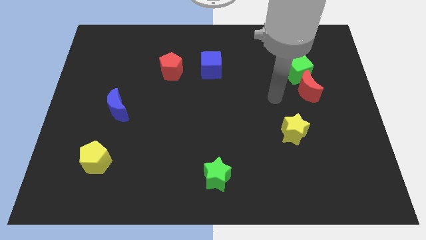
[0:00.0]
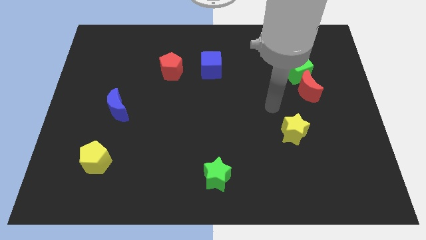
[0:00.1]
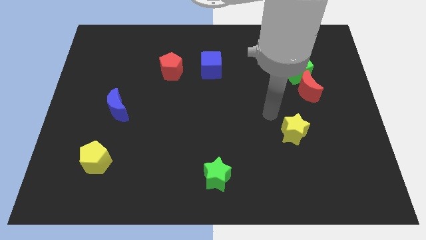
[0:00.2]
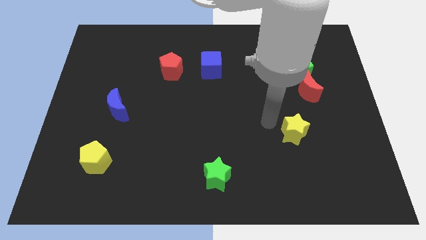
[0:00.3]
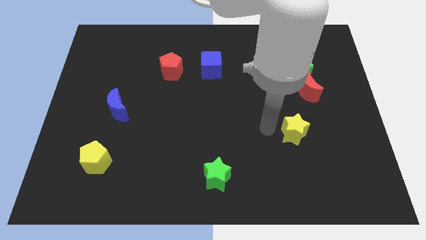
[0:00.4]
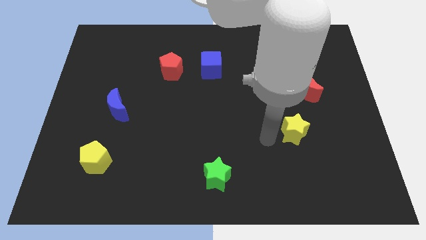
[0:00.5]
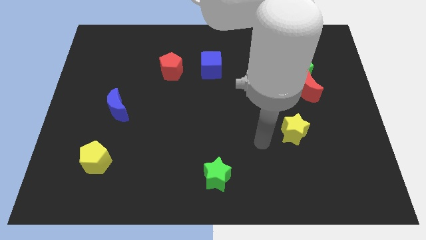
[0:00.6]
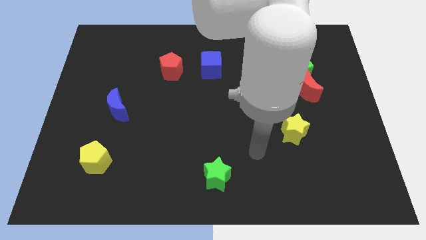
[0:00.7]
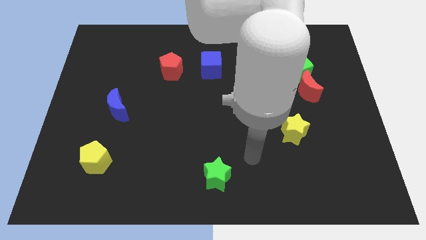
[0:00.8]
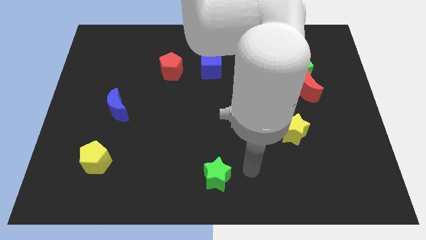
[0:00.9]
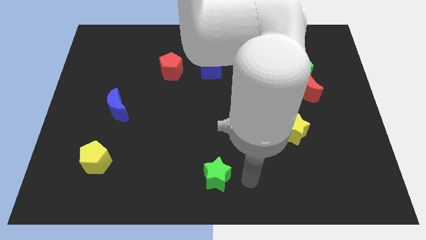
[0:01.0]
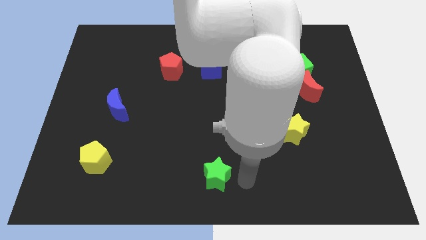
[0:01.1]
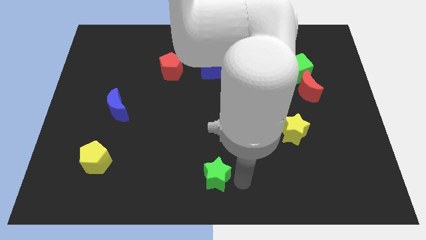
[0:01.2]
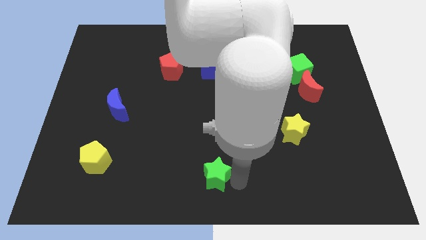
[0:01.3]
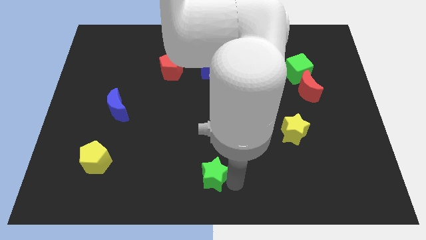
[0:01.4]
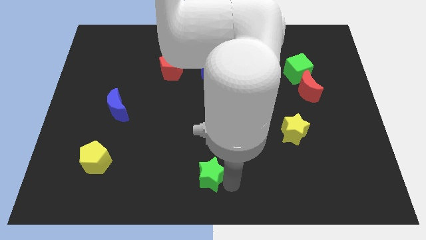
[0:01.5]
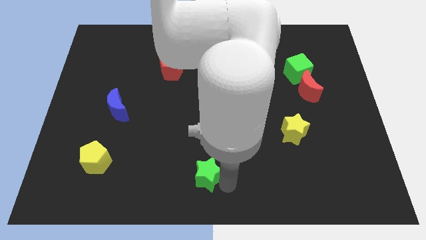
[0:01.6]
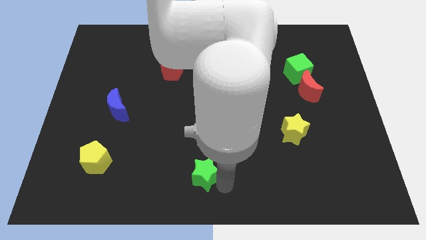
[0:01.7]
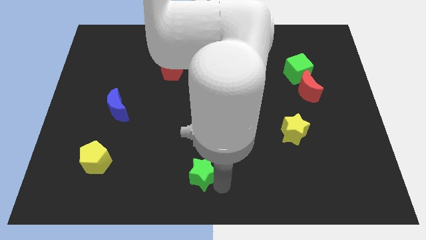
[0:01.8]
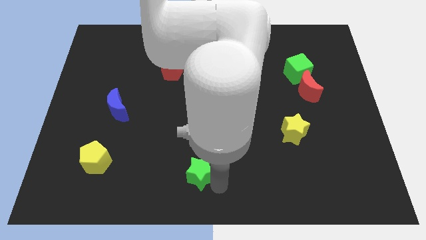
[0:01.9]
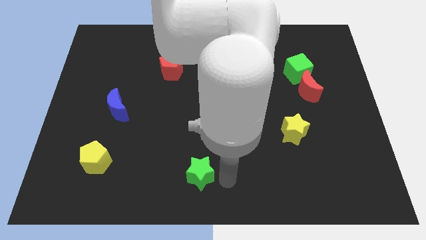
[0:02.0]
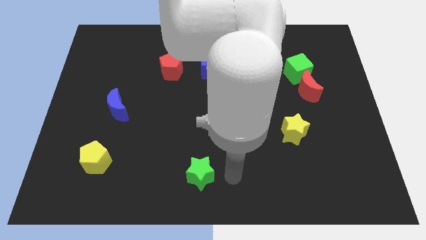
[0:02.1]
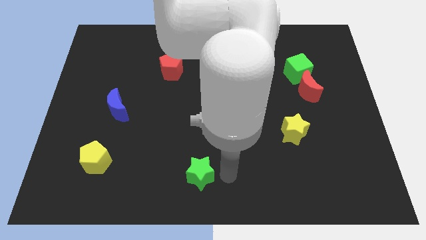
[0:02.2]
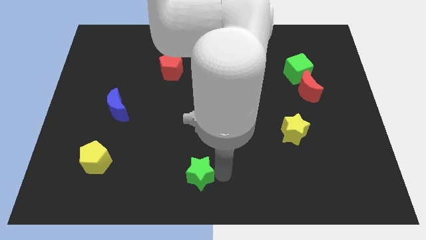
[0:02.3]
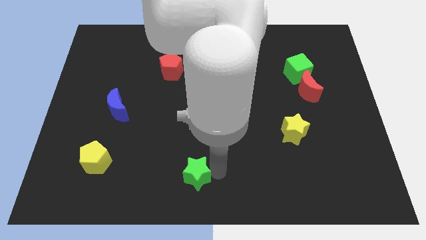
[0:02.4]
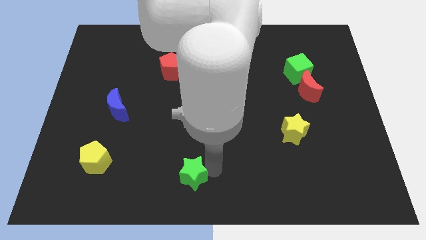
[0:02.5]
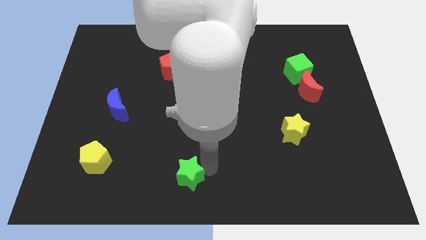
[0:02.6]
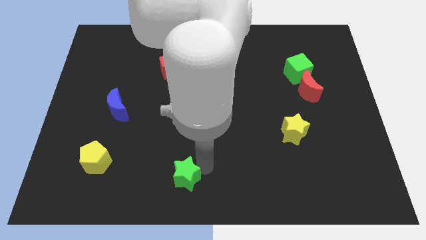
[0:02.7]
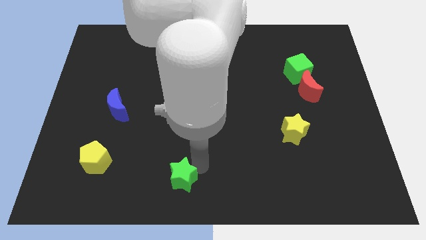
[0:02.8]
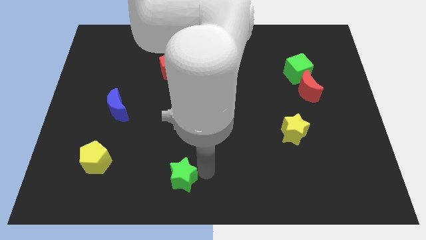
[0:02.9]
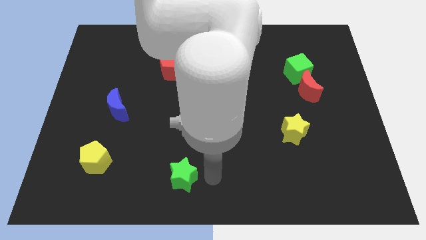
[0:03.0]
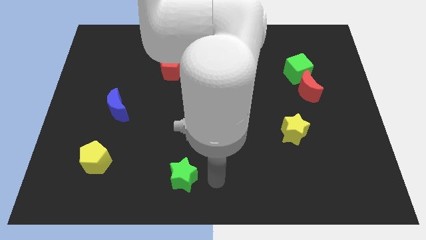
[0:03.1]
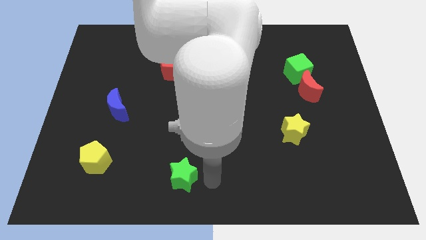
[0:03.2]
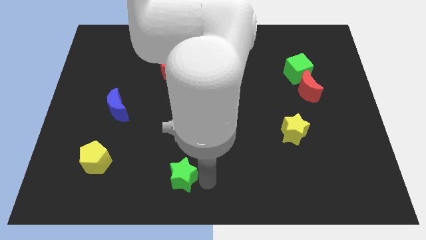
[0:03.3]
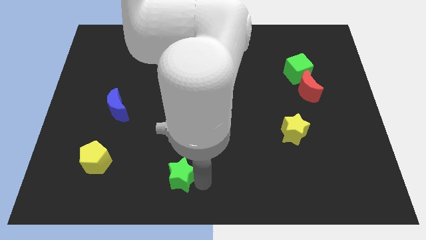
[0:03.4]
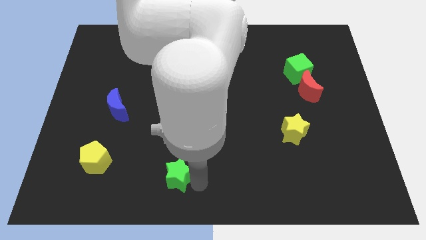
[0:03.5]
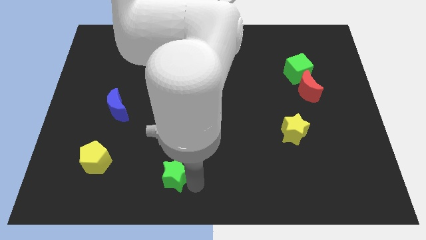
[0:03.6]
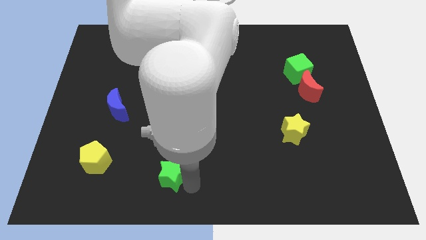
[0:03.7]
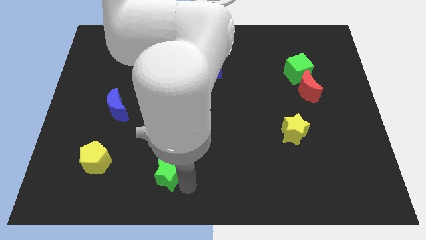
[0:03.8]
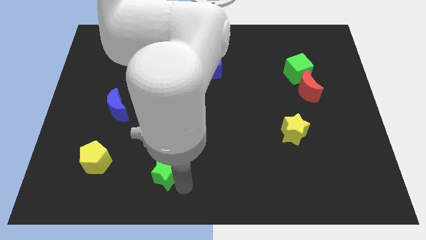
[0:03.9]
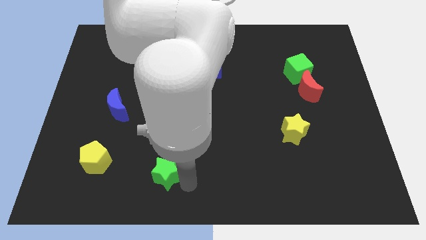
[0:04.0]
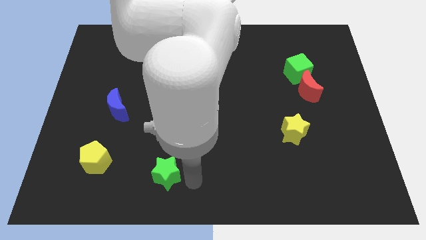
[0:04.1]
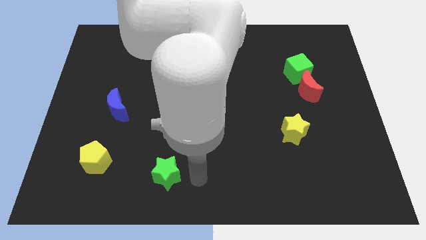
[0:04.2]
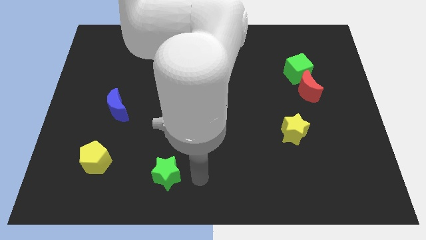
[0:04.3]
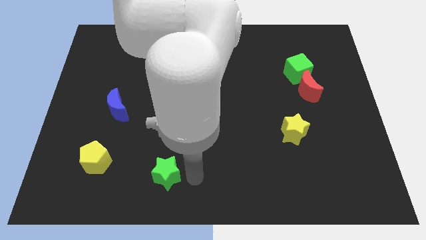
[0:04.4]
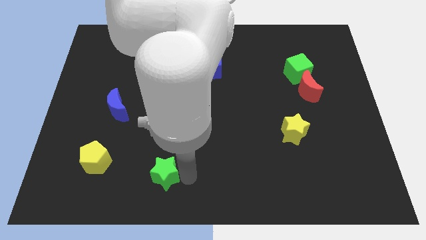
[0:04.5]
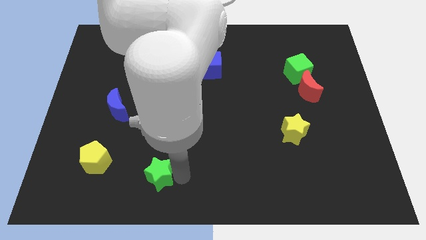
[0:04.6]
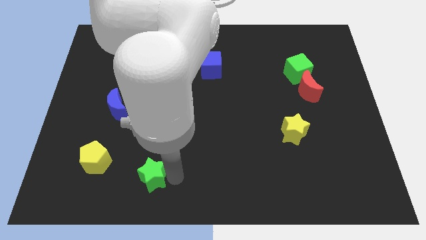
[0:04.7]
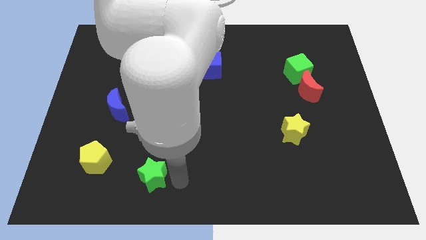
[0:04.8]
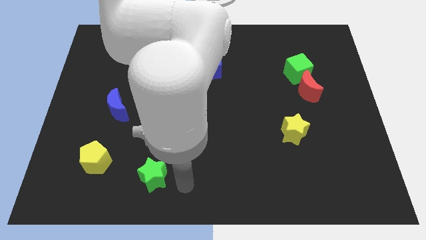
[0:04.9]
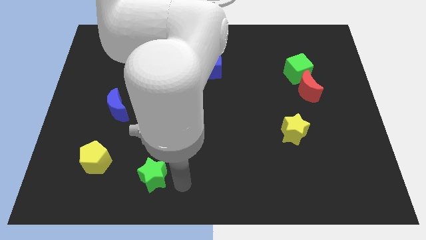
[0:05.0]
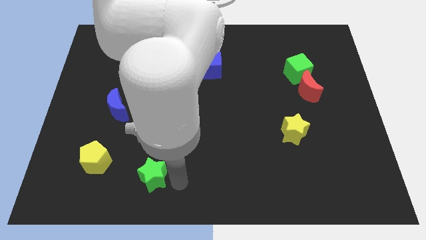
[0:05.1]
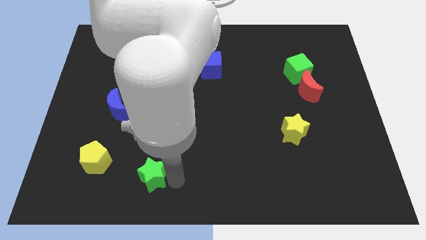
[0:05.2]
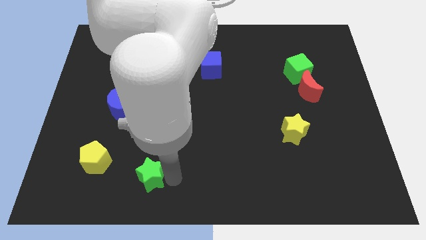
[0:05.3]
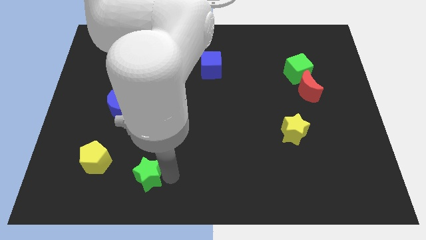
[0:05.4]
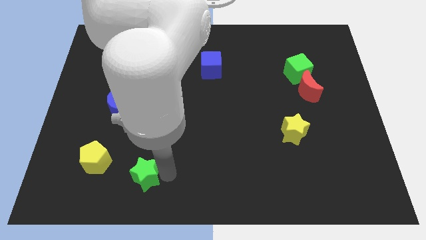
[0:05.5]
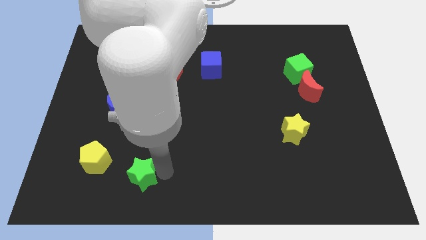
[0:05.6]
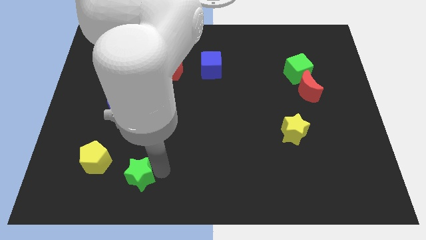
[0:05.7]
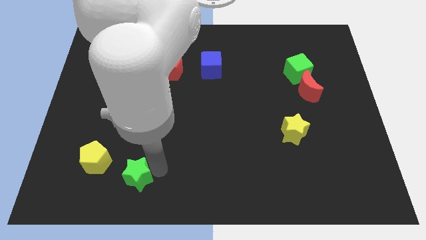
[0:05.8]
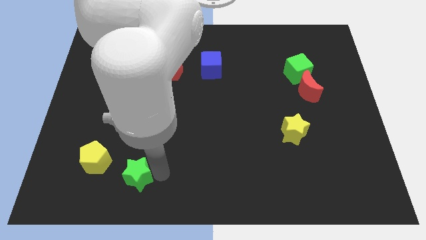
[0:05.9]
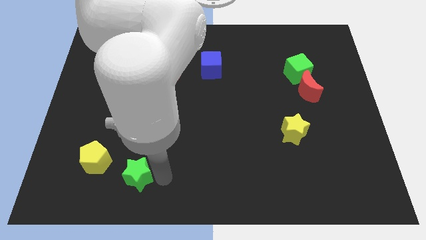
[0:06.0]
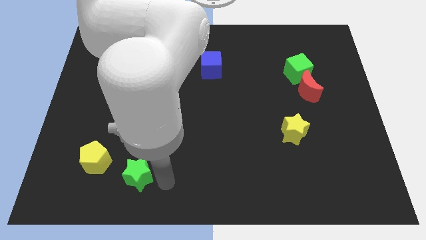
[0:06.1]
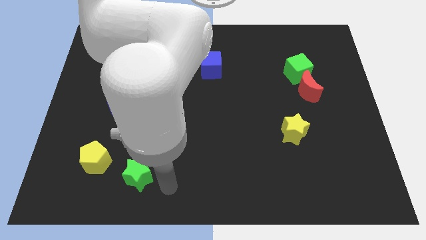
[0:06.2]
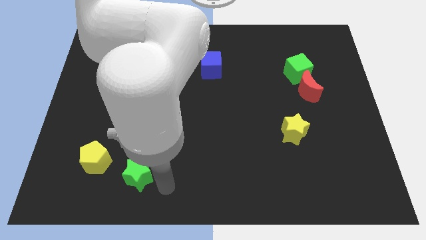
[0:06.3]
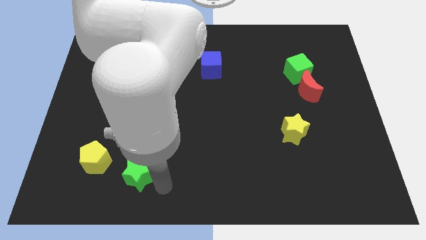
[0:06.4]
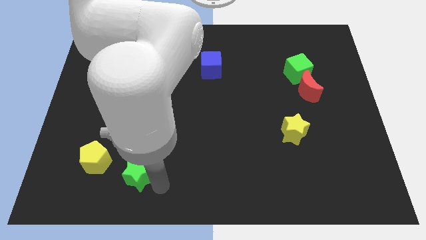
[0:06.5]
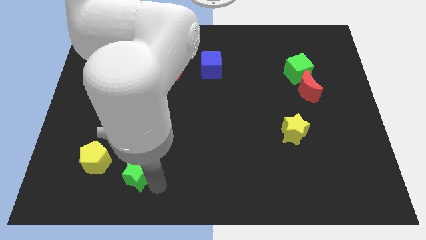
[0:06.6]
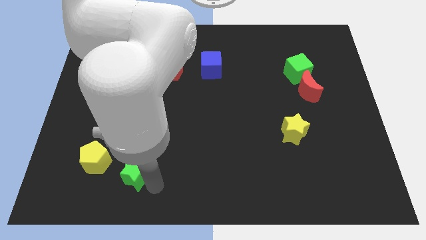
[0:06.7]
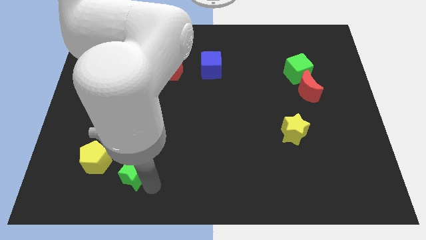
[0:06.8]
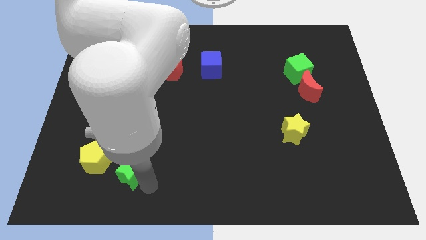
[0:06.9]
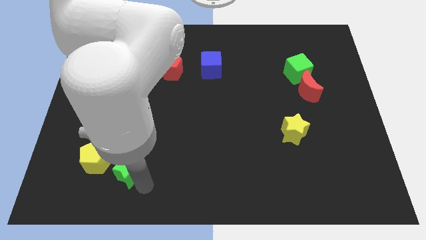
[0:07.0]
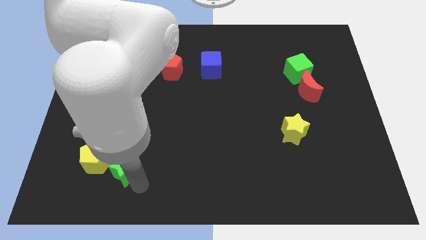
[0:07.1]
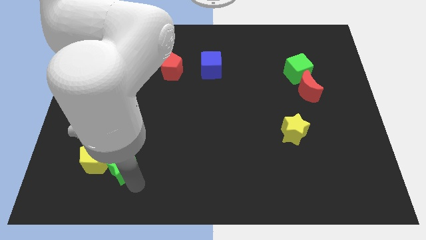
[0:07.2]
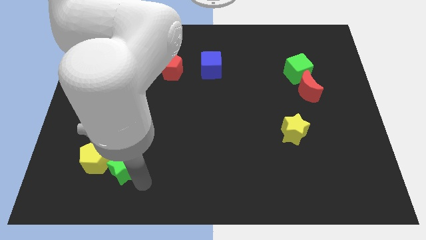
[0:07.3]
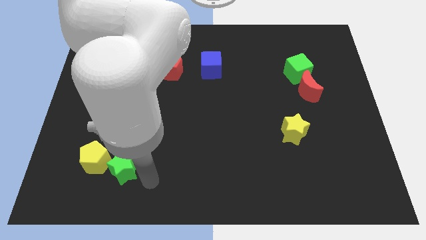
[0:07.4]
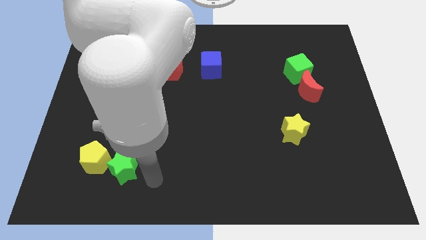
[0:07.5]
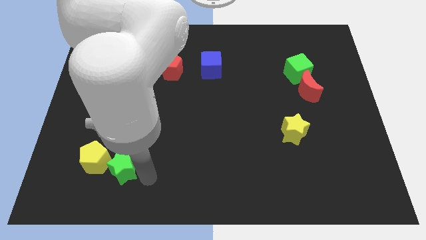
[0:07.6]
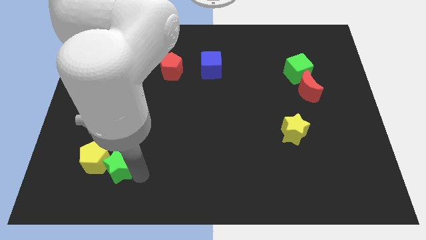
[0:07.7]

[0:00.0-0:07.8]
move the green star towards the yellow pentagon
